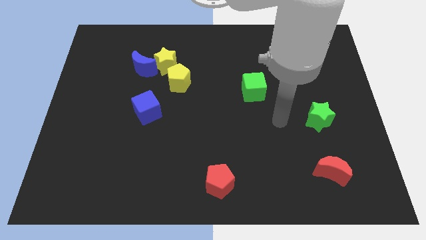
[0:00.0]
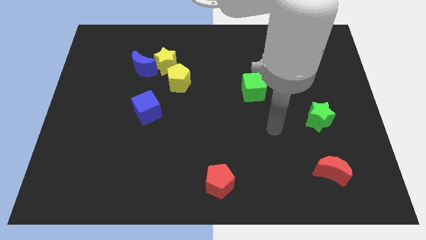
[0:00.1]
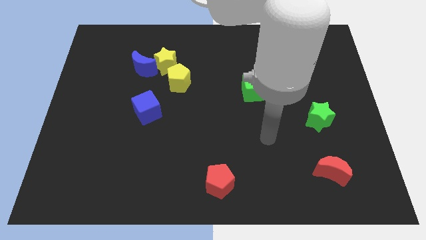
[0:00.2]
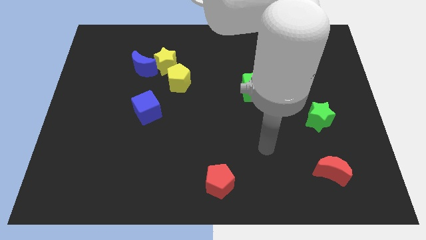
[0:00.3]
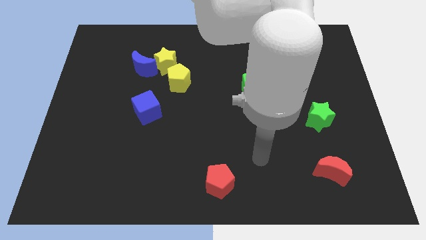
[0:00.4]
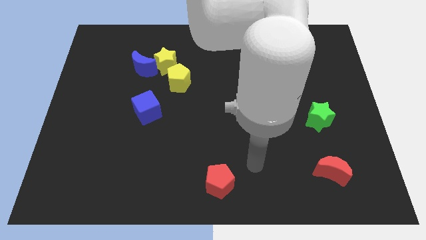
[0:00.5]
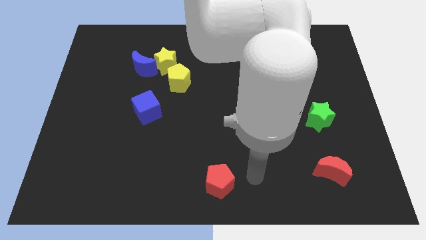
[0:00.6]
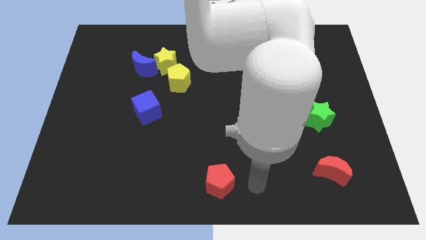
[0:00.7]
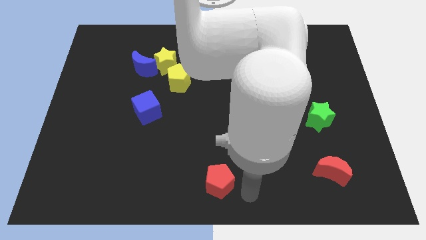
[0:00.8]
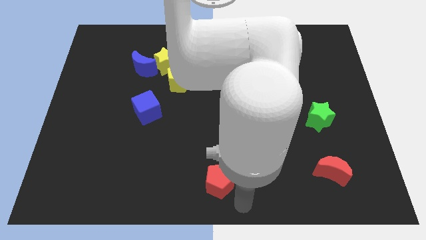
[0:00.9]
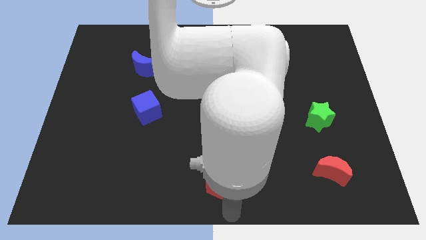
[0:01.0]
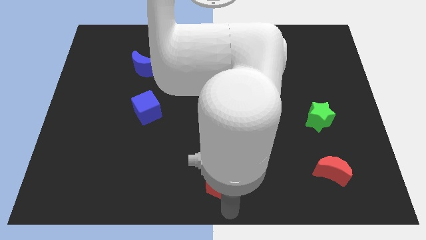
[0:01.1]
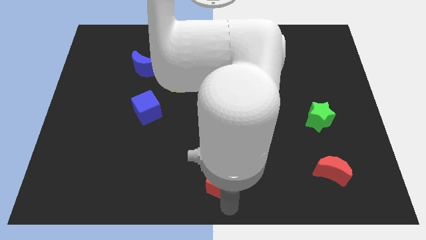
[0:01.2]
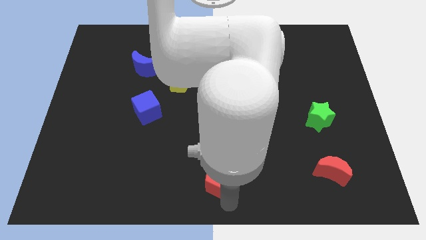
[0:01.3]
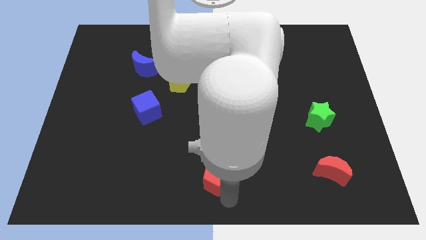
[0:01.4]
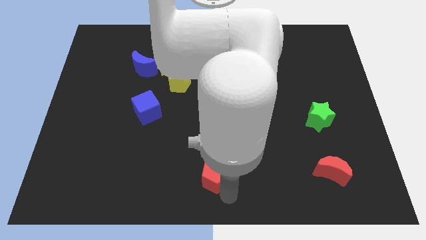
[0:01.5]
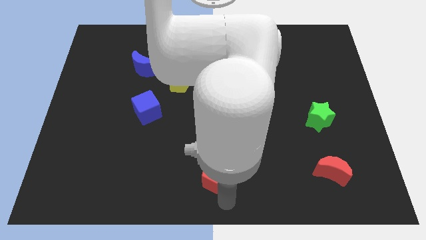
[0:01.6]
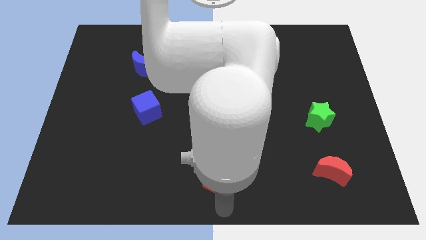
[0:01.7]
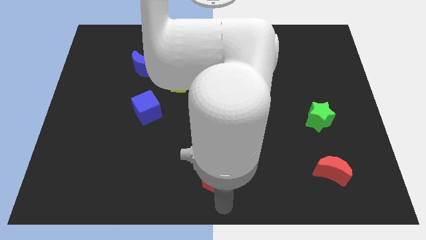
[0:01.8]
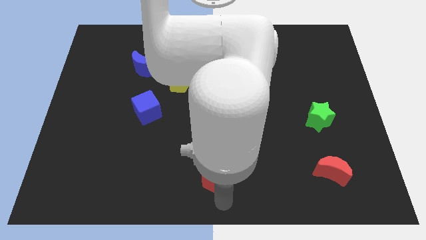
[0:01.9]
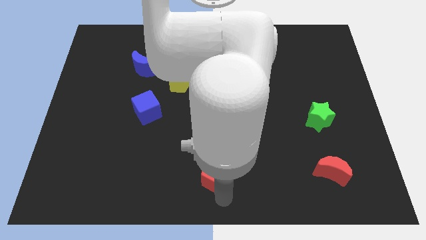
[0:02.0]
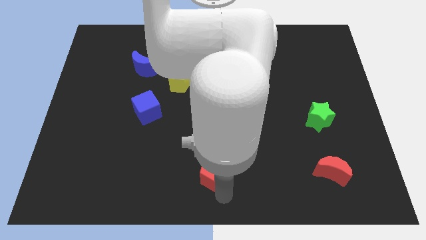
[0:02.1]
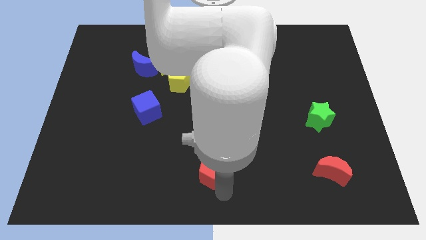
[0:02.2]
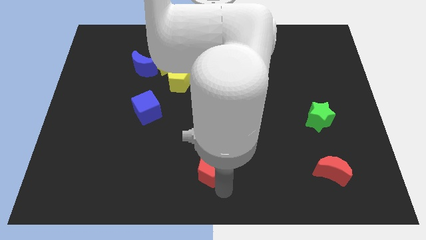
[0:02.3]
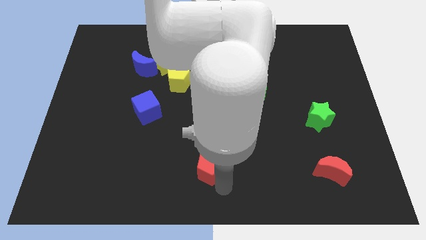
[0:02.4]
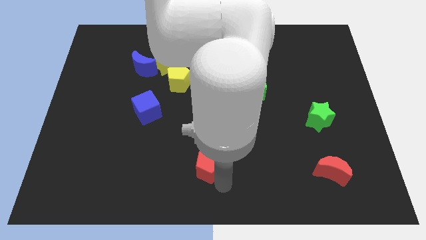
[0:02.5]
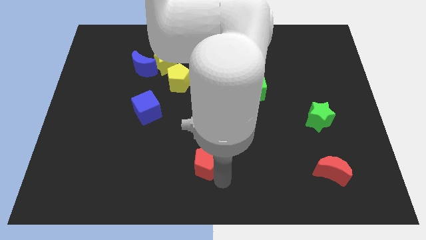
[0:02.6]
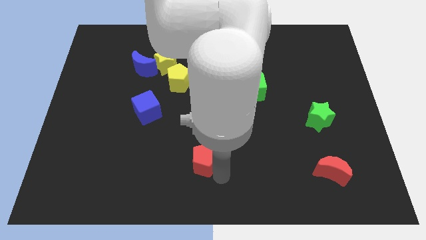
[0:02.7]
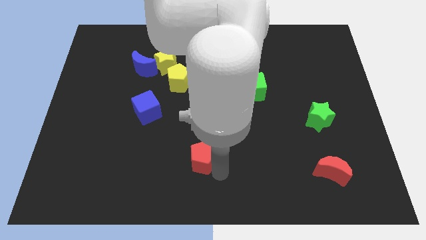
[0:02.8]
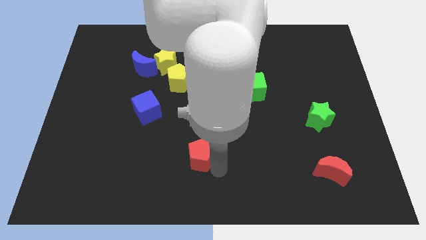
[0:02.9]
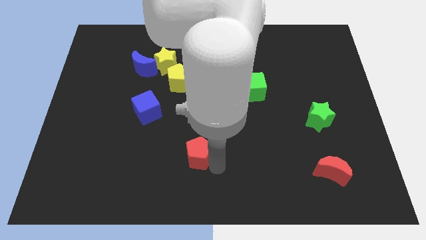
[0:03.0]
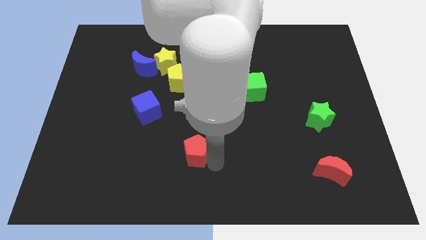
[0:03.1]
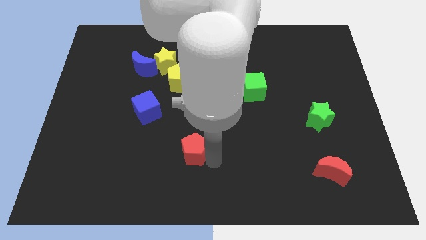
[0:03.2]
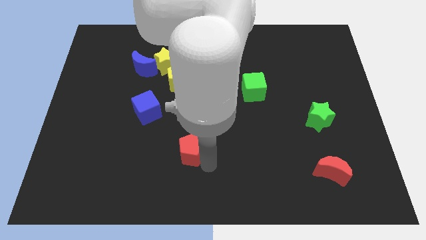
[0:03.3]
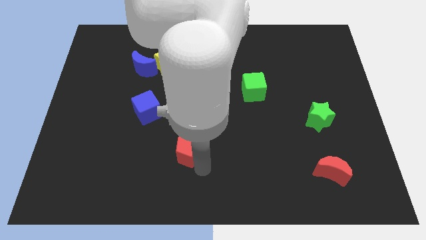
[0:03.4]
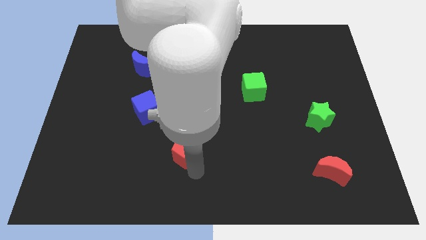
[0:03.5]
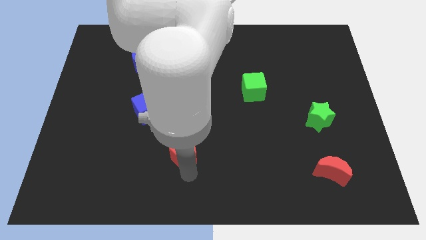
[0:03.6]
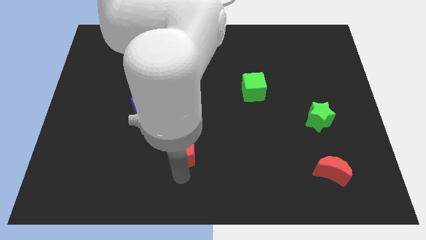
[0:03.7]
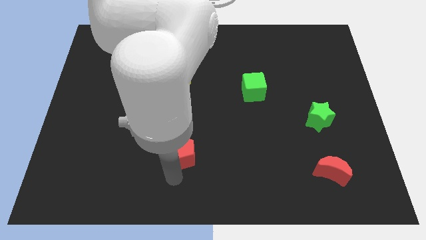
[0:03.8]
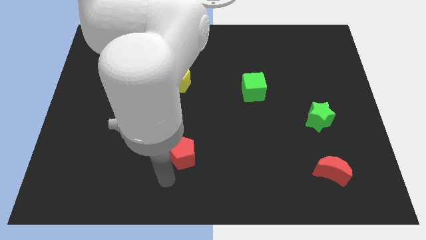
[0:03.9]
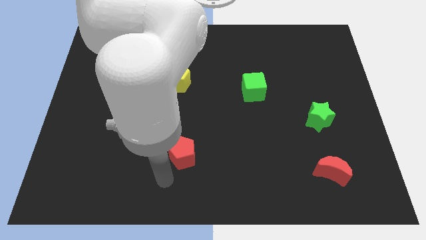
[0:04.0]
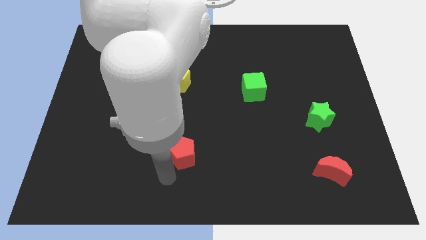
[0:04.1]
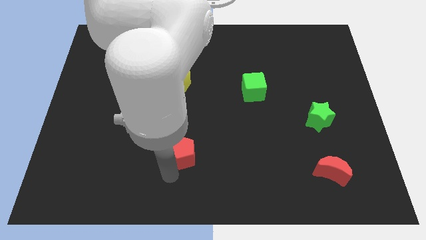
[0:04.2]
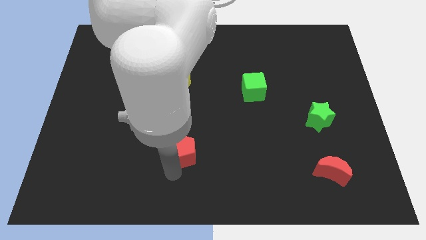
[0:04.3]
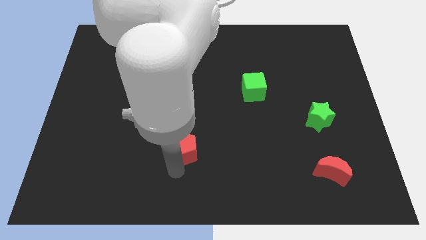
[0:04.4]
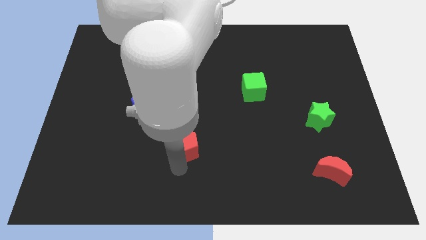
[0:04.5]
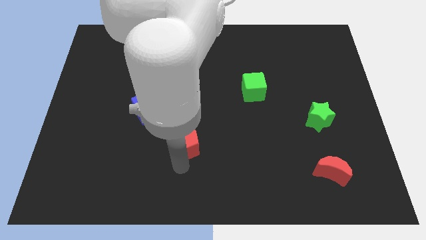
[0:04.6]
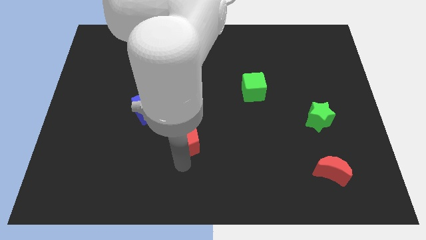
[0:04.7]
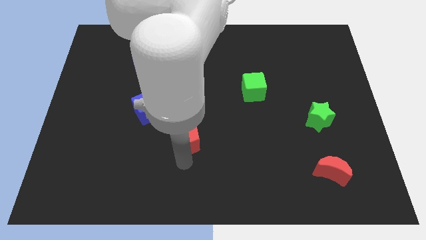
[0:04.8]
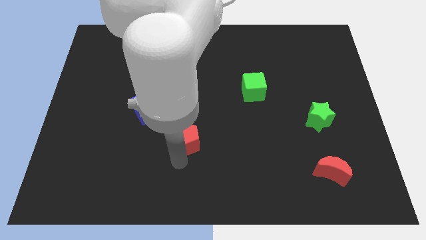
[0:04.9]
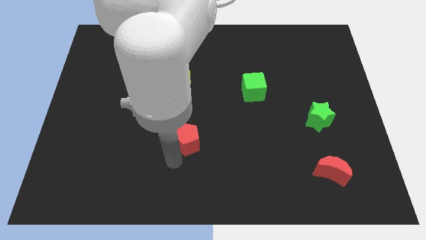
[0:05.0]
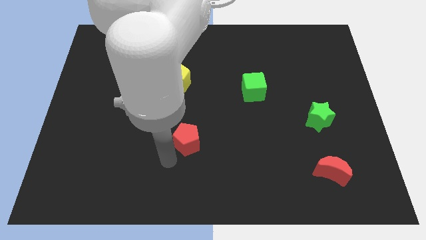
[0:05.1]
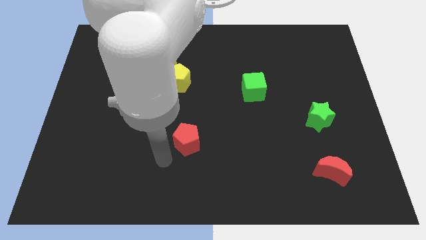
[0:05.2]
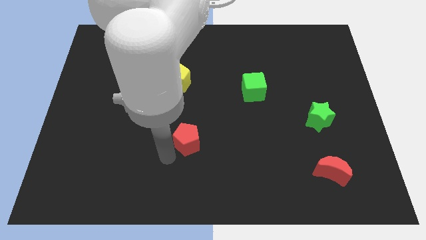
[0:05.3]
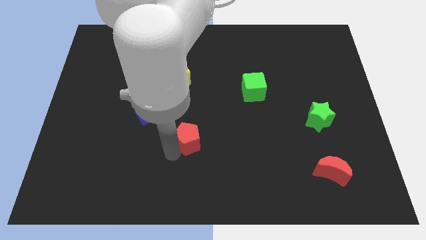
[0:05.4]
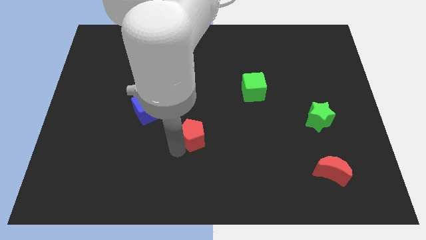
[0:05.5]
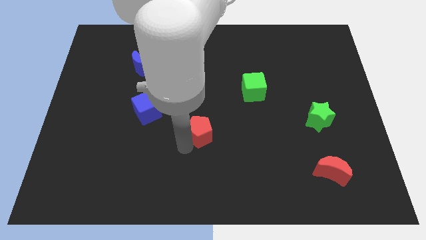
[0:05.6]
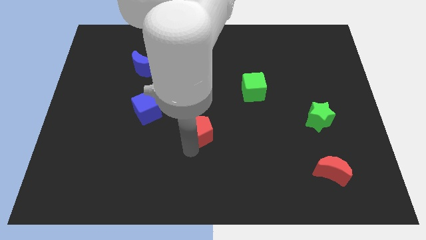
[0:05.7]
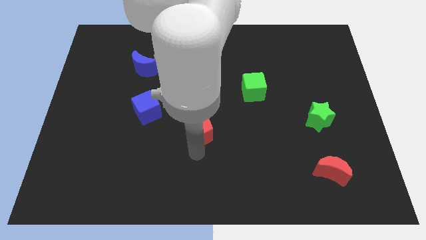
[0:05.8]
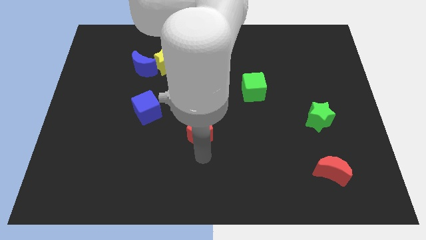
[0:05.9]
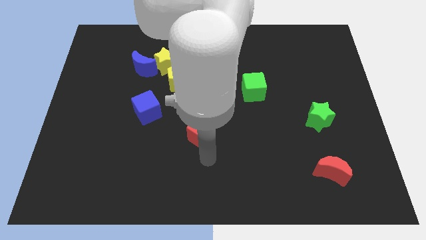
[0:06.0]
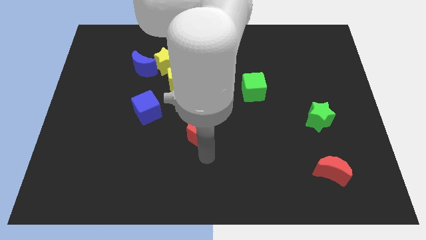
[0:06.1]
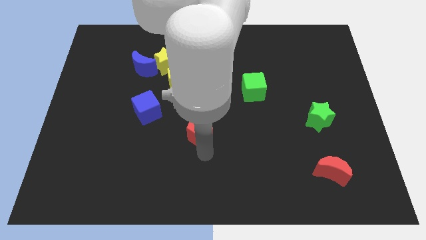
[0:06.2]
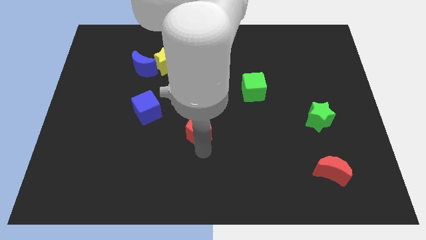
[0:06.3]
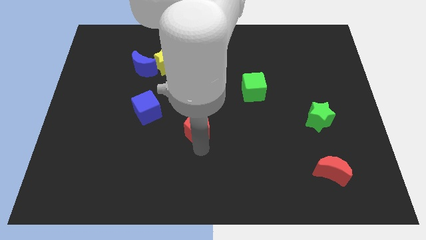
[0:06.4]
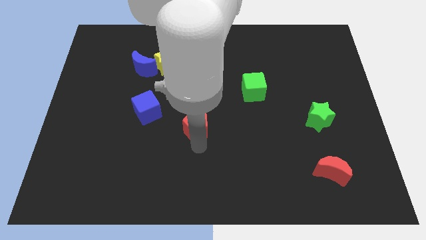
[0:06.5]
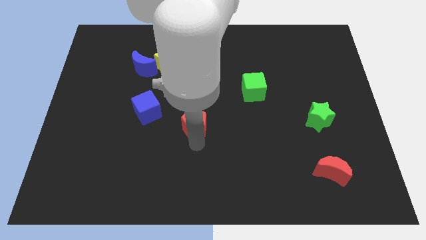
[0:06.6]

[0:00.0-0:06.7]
move the red pentagon to the right of the blue cube

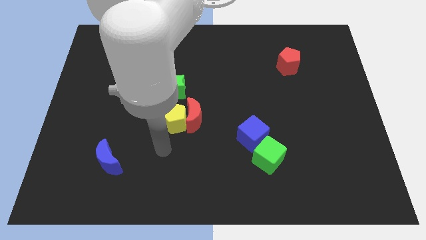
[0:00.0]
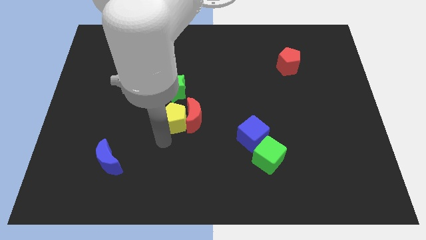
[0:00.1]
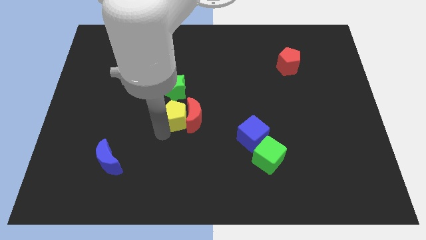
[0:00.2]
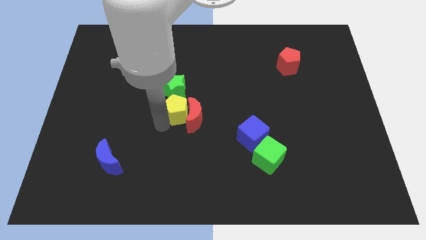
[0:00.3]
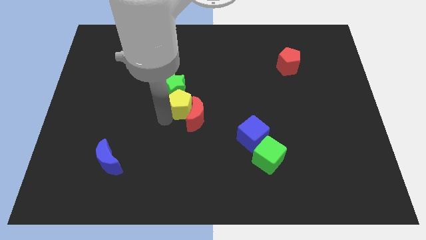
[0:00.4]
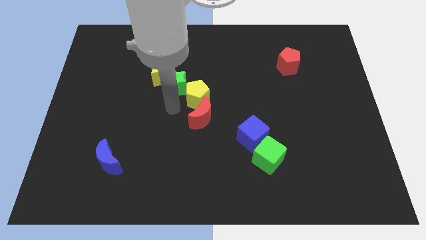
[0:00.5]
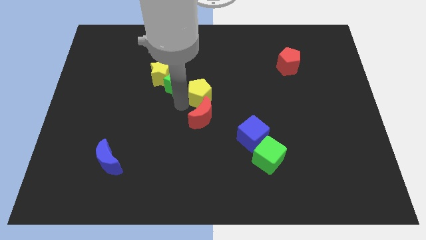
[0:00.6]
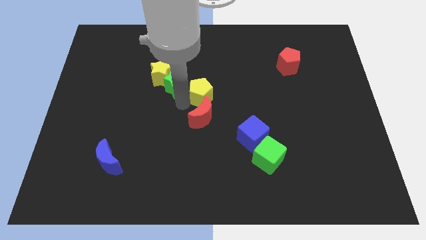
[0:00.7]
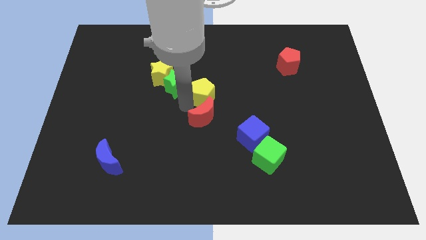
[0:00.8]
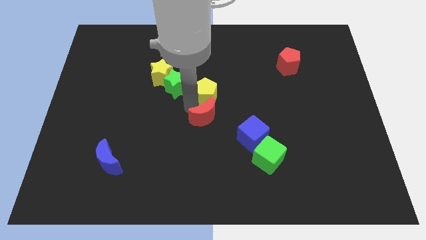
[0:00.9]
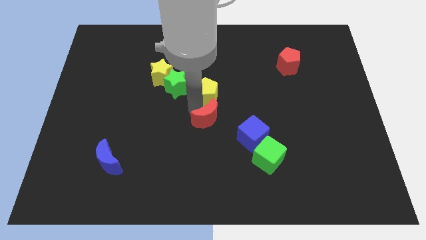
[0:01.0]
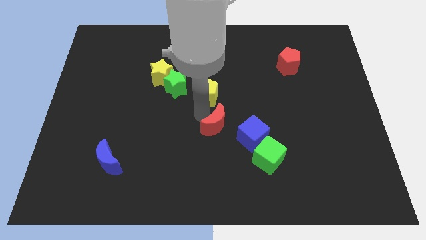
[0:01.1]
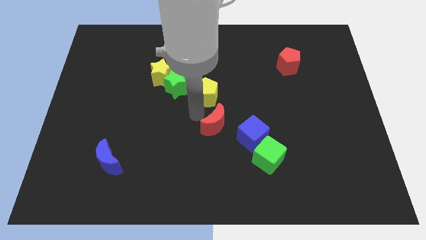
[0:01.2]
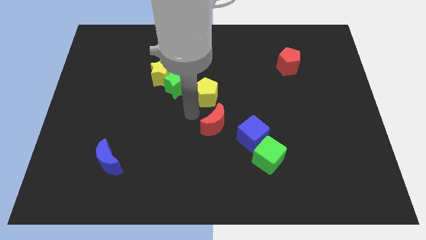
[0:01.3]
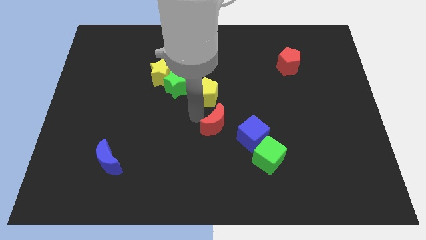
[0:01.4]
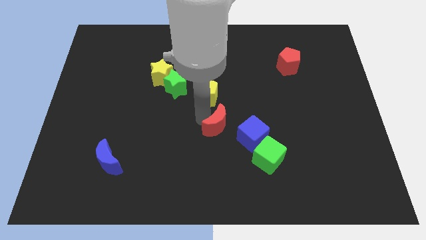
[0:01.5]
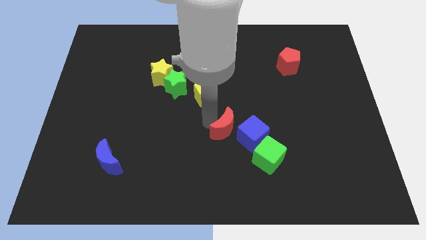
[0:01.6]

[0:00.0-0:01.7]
slide the red moon to the top left of the green cube
